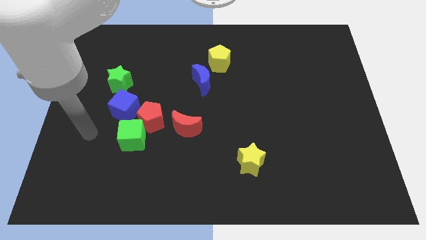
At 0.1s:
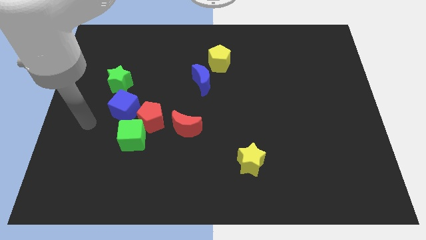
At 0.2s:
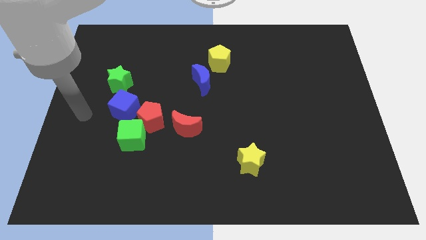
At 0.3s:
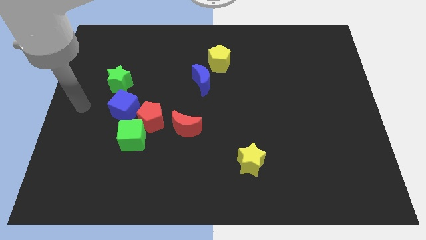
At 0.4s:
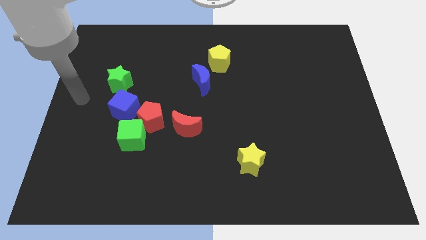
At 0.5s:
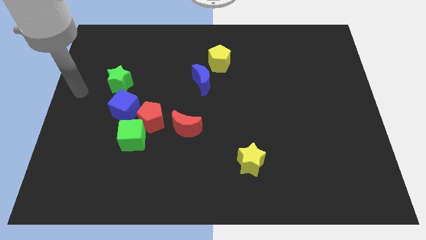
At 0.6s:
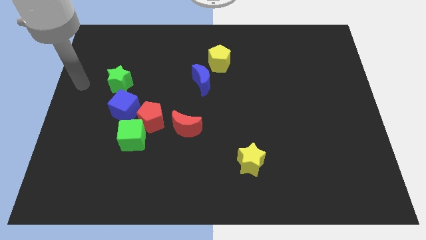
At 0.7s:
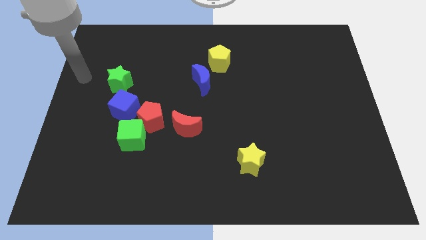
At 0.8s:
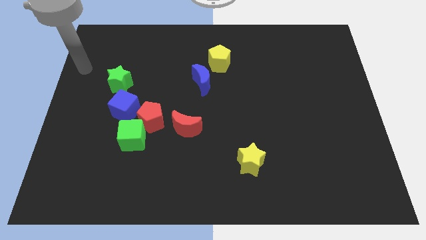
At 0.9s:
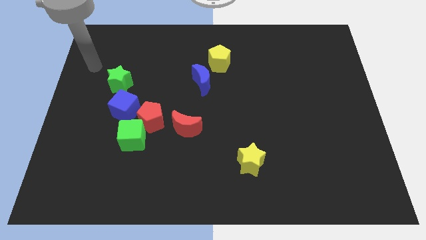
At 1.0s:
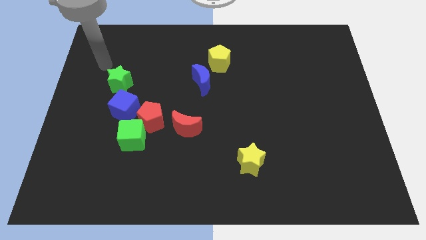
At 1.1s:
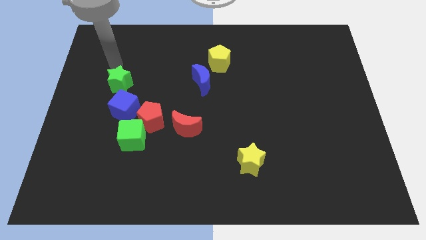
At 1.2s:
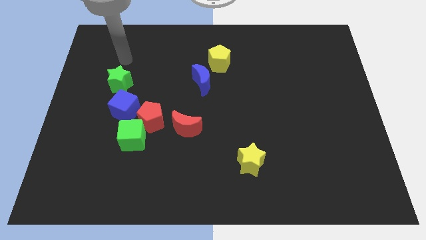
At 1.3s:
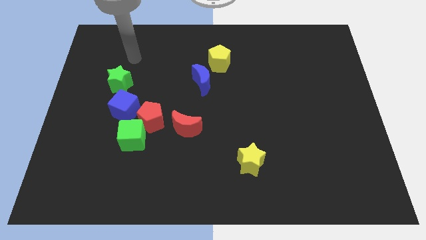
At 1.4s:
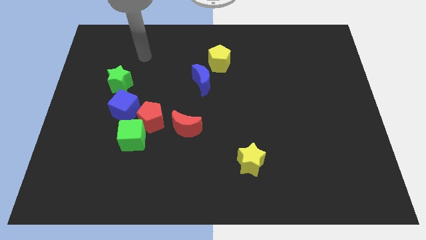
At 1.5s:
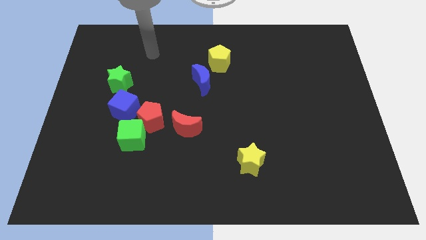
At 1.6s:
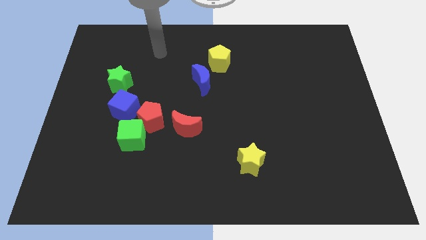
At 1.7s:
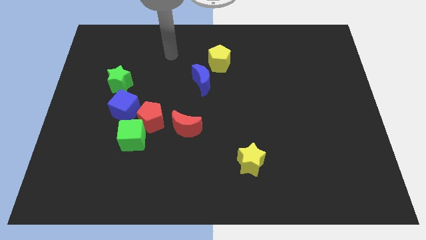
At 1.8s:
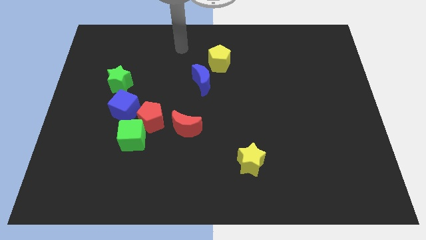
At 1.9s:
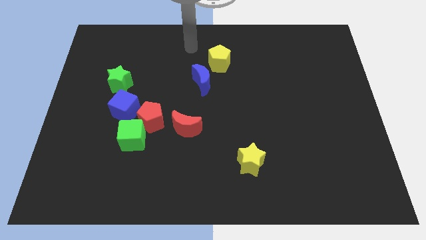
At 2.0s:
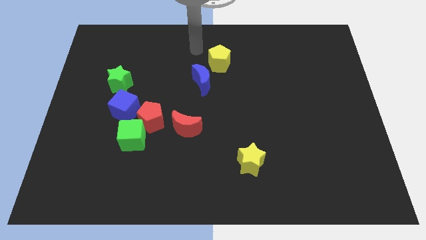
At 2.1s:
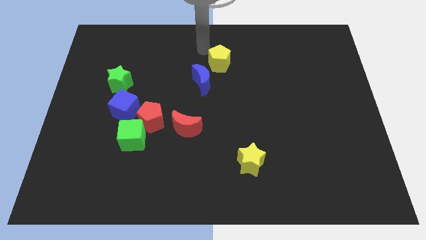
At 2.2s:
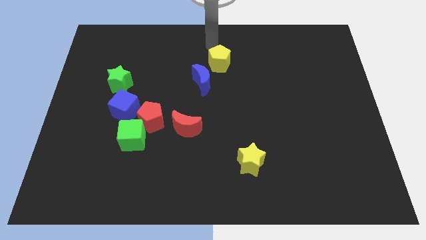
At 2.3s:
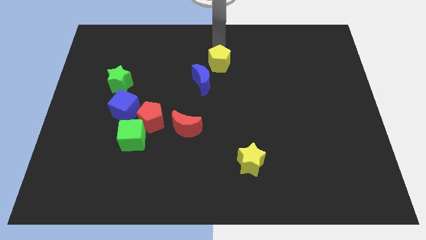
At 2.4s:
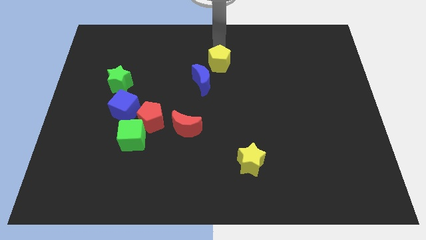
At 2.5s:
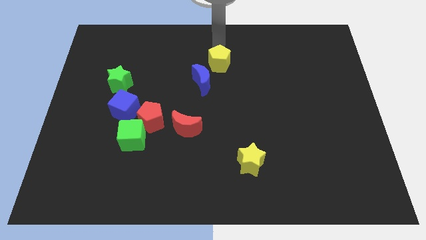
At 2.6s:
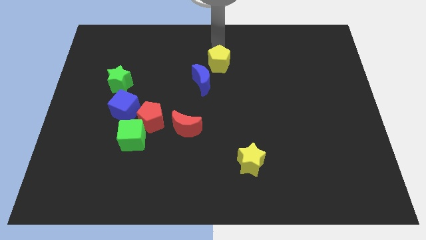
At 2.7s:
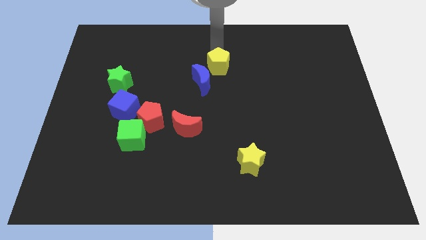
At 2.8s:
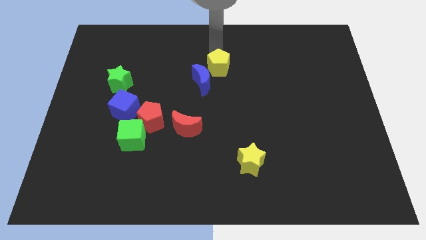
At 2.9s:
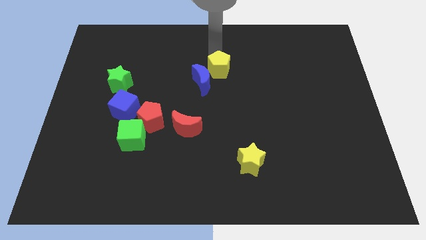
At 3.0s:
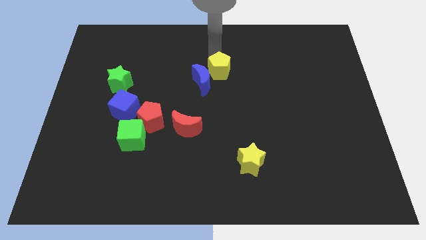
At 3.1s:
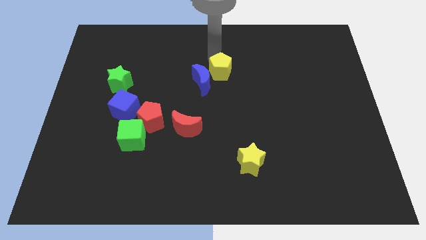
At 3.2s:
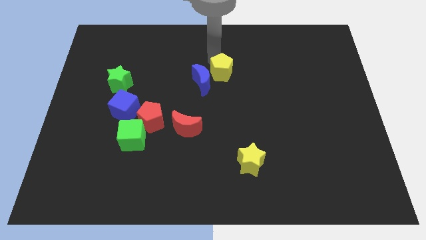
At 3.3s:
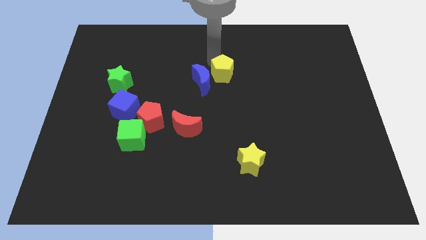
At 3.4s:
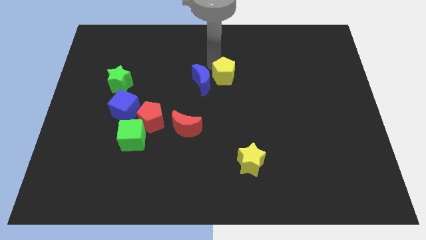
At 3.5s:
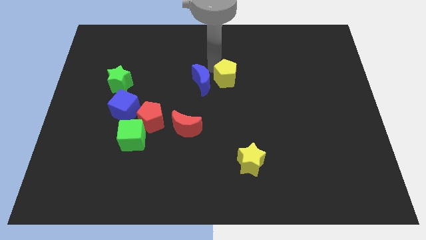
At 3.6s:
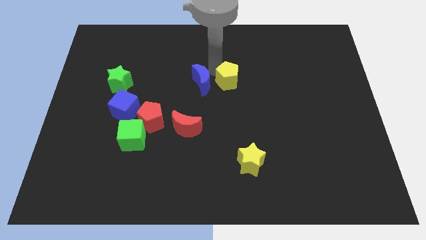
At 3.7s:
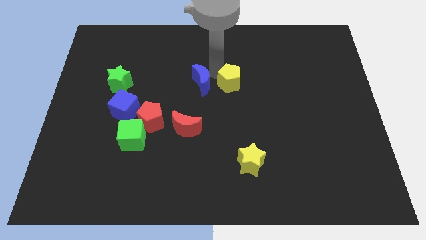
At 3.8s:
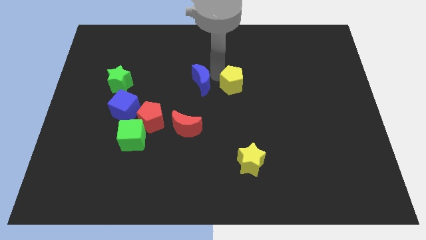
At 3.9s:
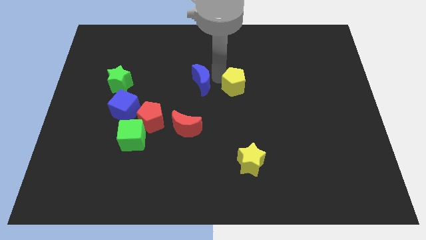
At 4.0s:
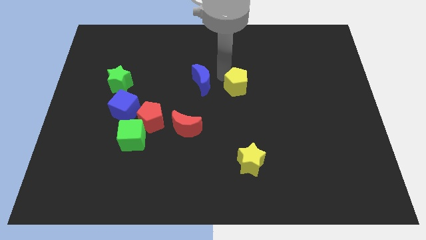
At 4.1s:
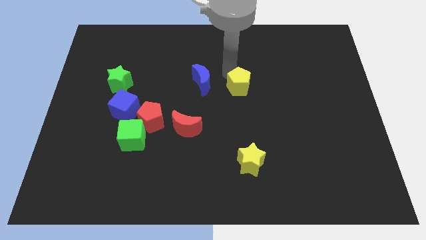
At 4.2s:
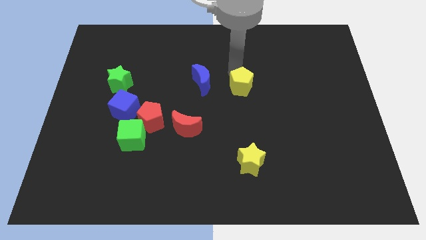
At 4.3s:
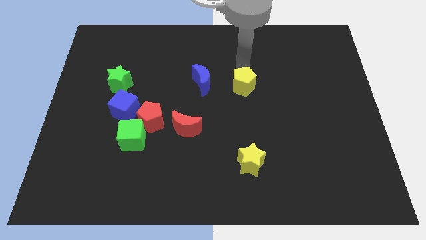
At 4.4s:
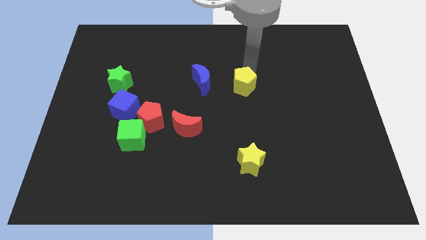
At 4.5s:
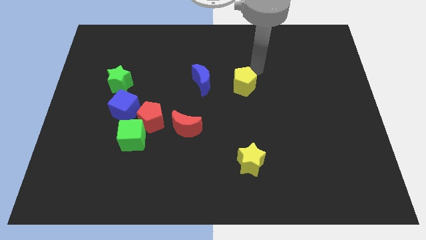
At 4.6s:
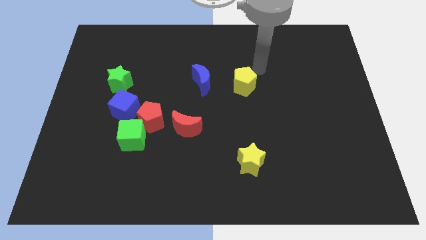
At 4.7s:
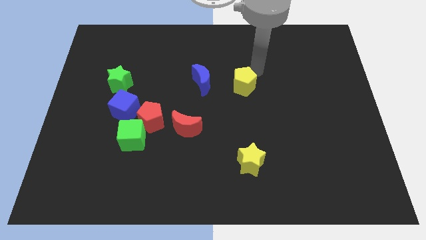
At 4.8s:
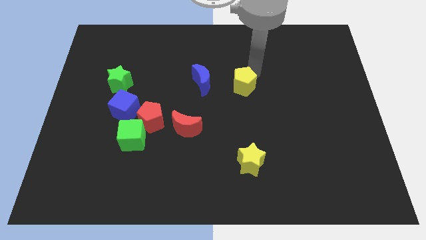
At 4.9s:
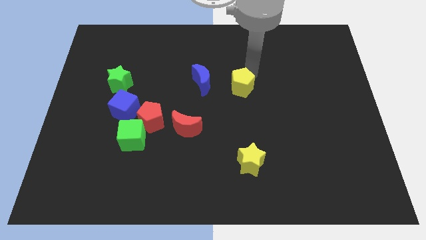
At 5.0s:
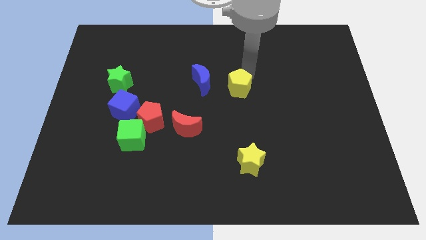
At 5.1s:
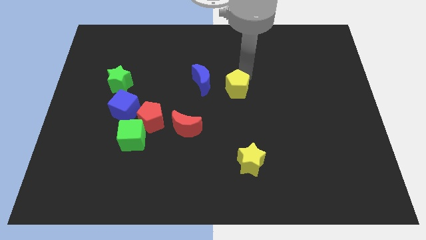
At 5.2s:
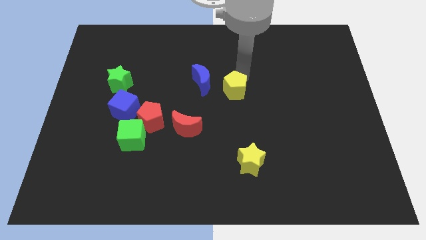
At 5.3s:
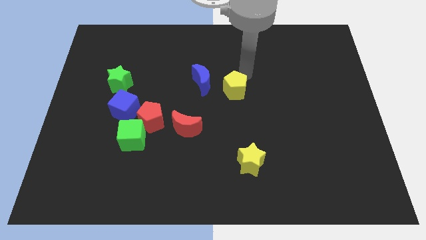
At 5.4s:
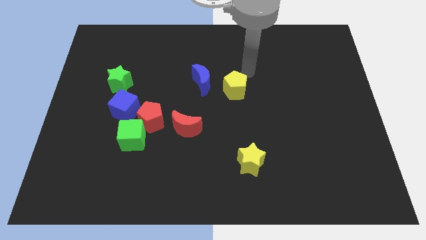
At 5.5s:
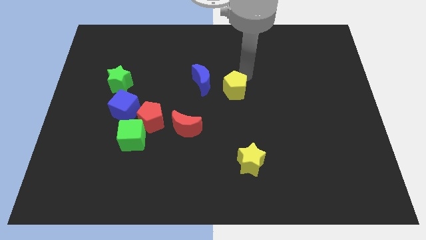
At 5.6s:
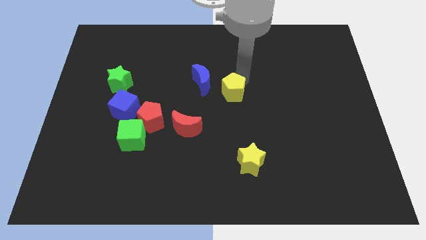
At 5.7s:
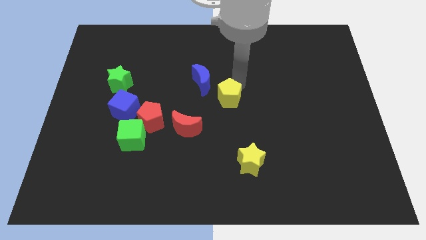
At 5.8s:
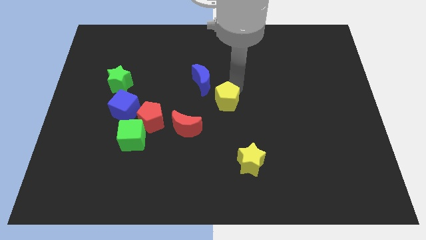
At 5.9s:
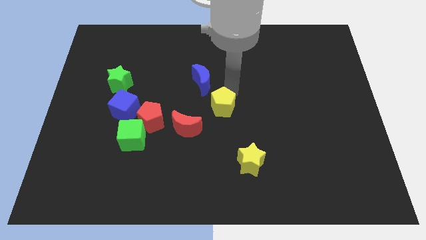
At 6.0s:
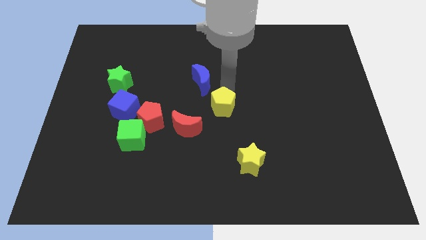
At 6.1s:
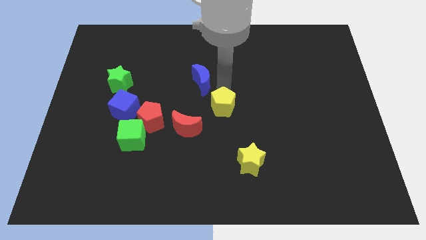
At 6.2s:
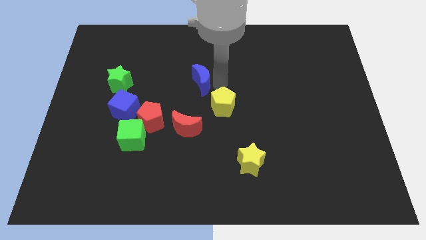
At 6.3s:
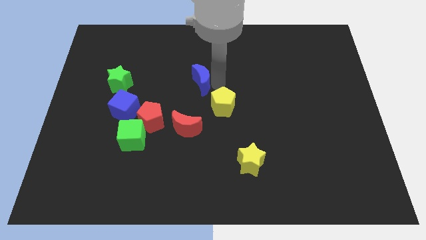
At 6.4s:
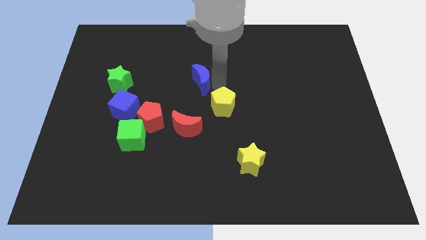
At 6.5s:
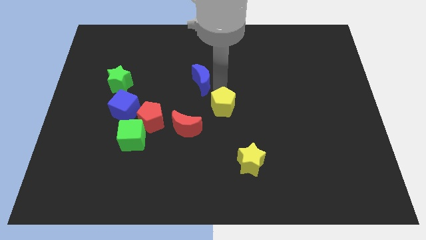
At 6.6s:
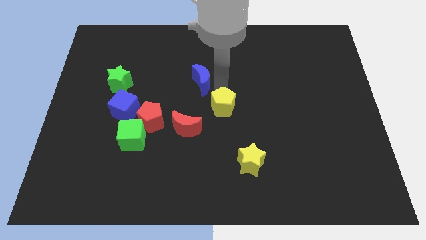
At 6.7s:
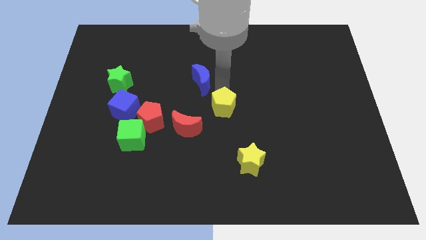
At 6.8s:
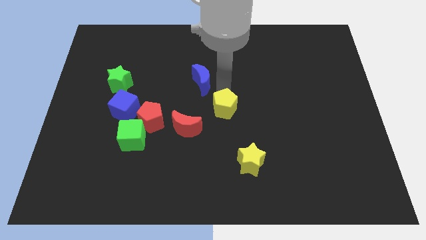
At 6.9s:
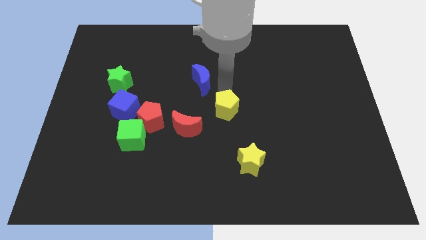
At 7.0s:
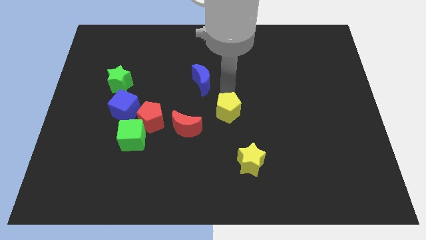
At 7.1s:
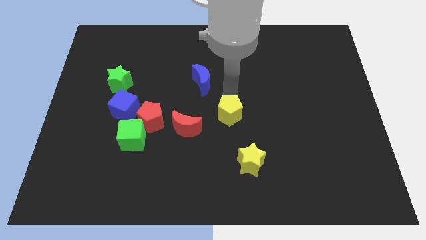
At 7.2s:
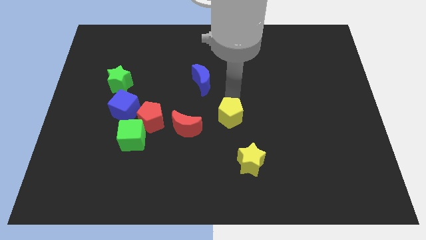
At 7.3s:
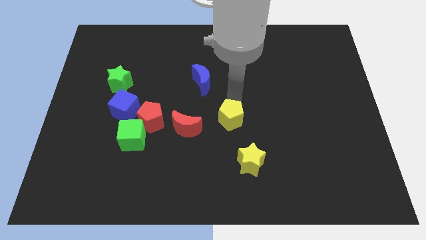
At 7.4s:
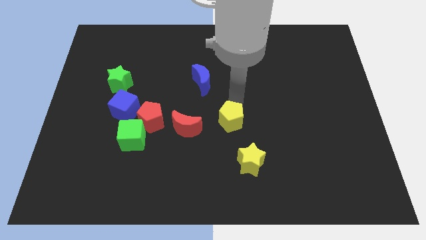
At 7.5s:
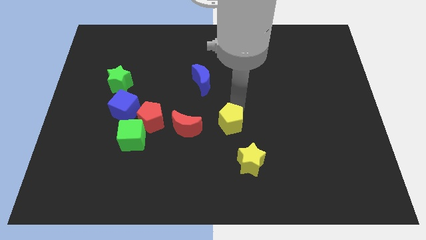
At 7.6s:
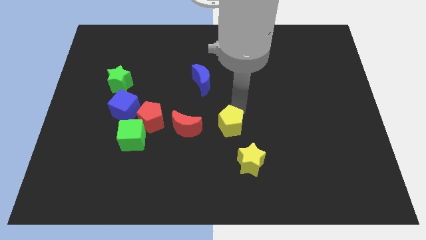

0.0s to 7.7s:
slide the yellow pentagon downwards

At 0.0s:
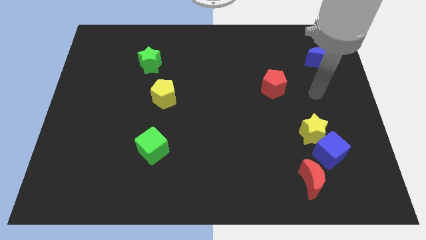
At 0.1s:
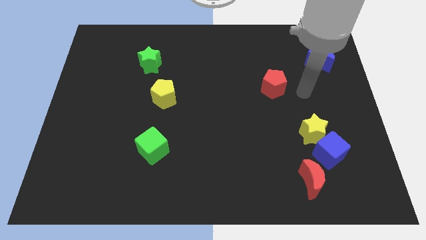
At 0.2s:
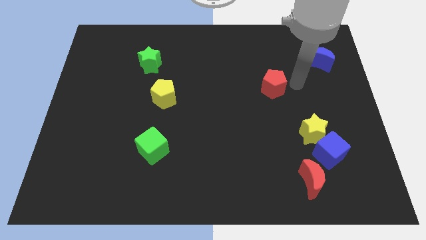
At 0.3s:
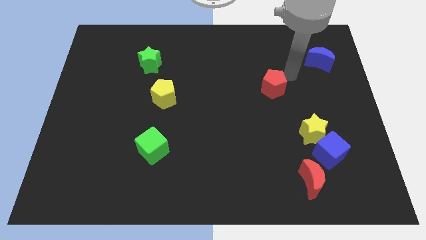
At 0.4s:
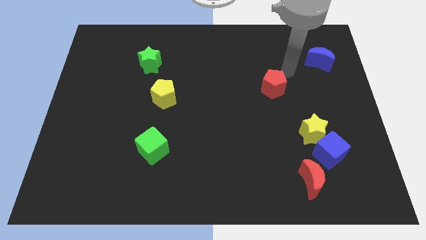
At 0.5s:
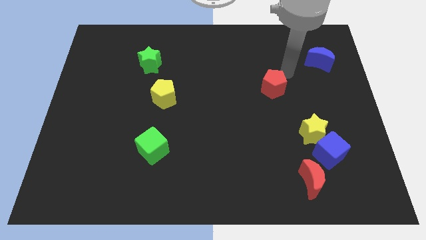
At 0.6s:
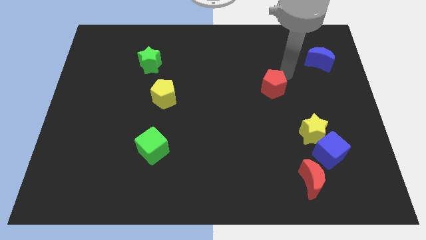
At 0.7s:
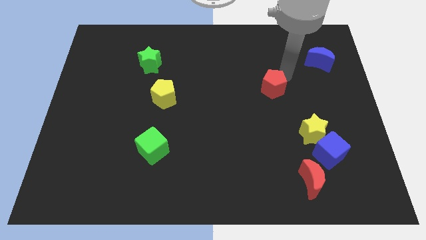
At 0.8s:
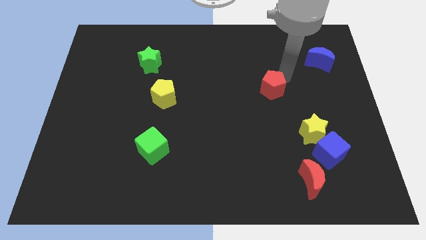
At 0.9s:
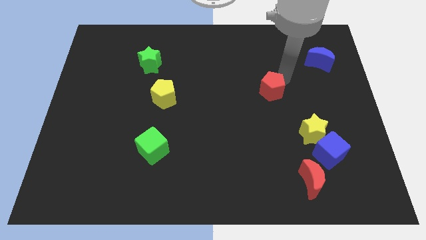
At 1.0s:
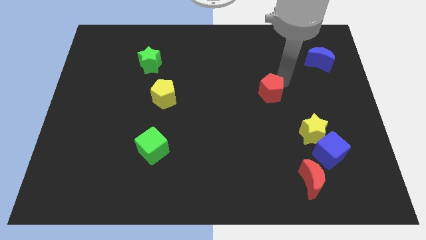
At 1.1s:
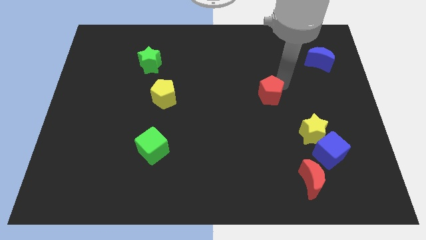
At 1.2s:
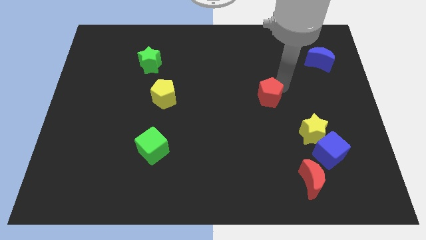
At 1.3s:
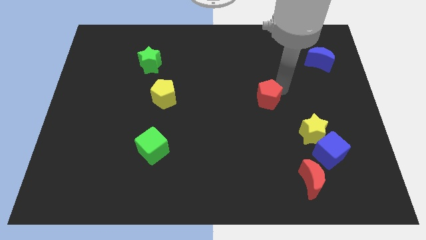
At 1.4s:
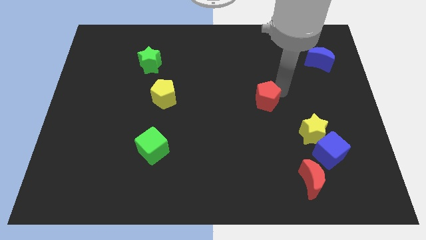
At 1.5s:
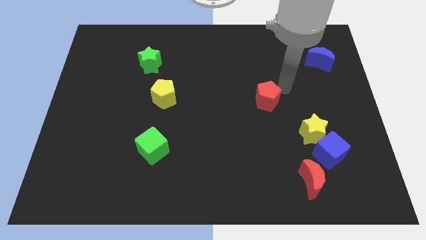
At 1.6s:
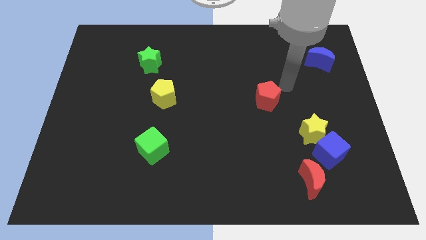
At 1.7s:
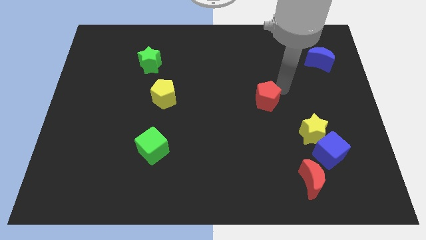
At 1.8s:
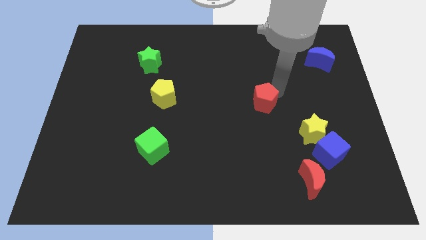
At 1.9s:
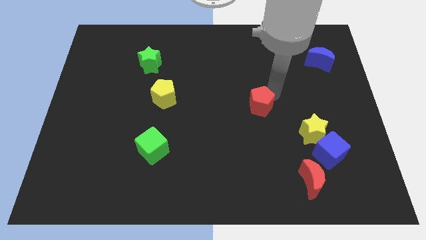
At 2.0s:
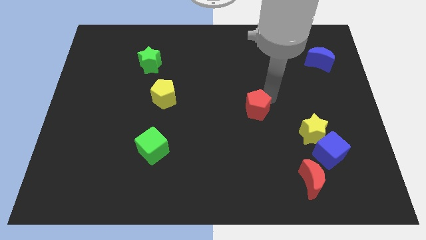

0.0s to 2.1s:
slide the red pentagon a little diagonally down and to the left
